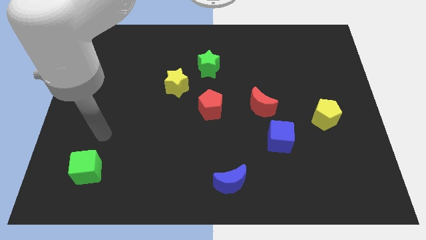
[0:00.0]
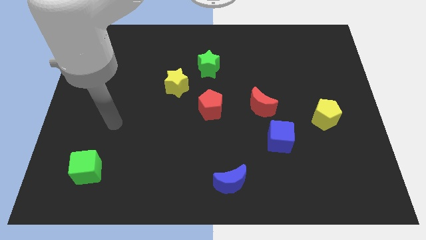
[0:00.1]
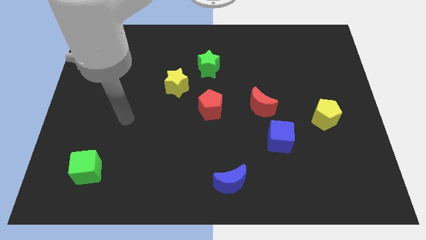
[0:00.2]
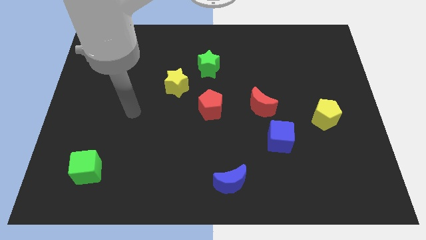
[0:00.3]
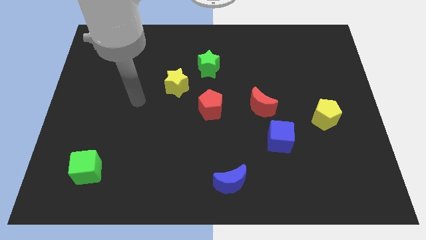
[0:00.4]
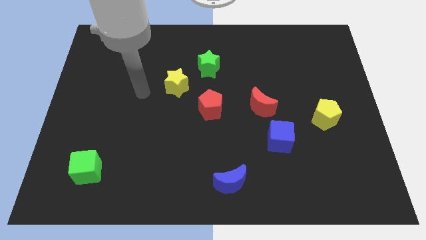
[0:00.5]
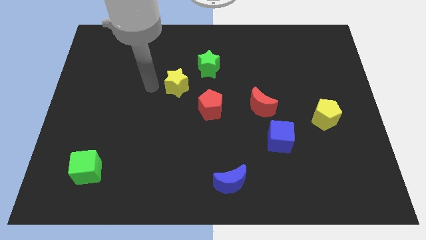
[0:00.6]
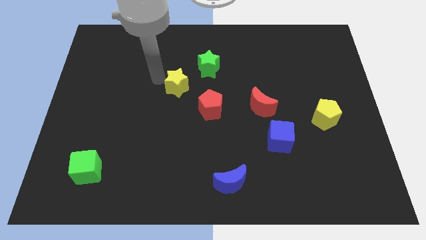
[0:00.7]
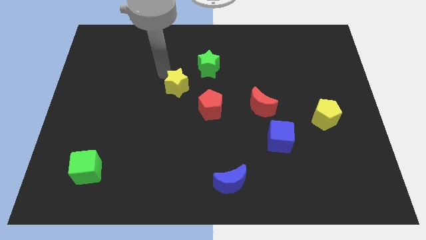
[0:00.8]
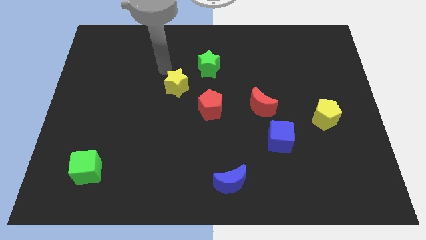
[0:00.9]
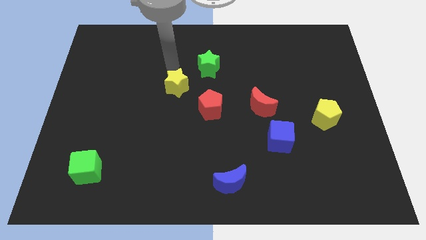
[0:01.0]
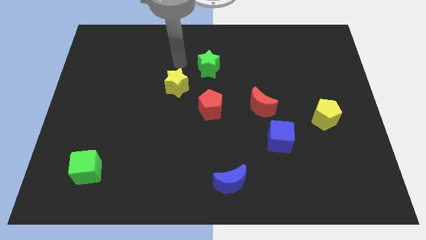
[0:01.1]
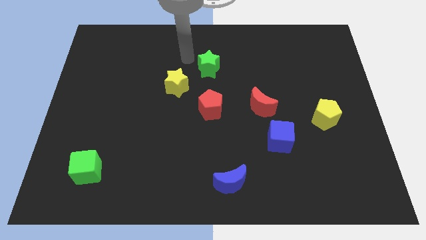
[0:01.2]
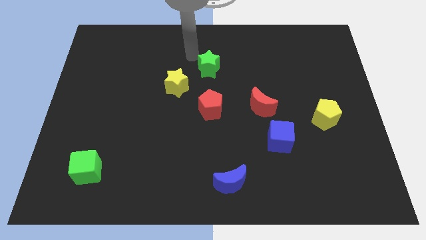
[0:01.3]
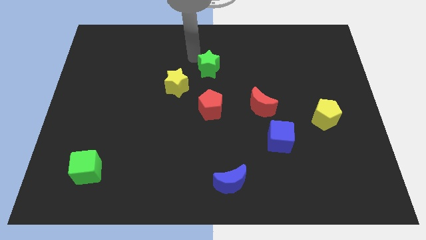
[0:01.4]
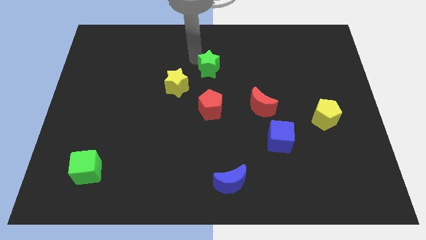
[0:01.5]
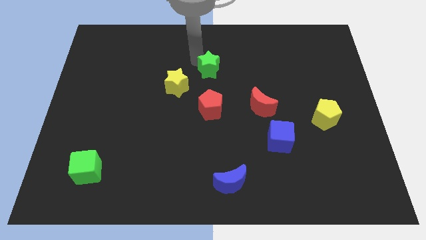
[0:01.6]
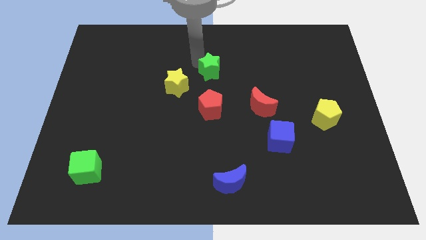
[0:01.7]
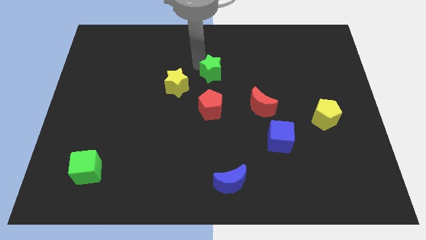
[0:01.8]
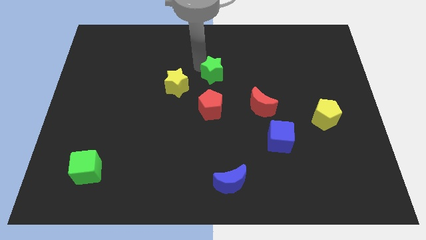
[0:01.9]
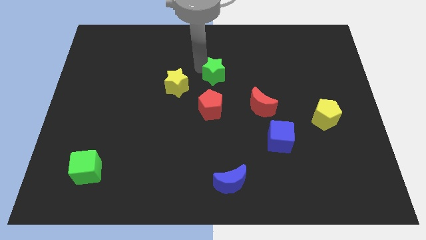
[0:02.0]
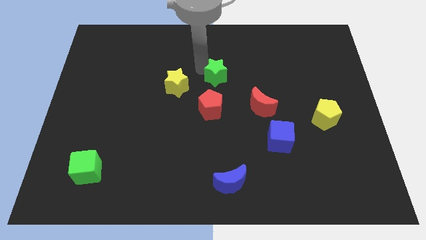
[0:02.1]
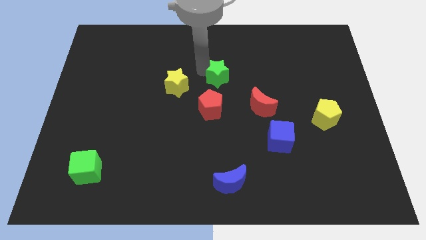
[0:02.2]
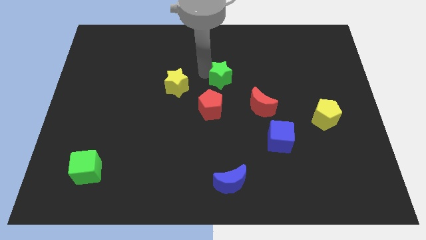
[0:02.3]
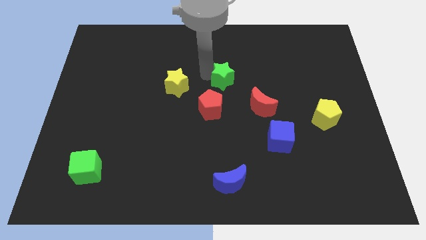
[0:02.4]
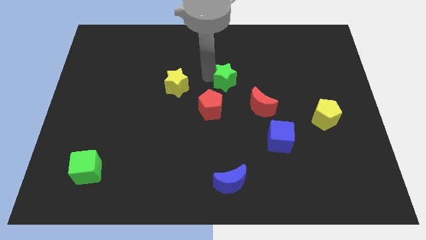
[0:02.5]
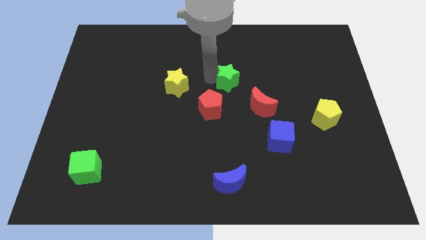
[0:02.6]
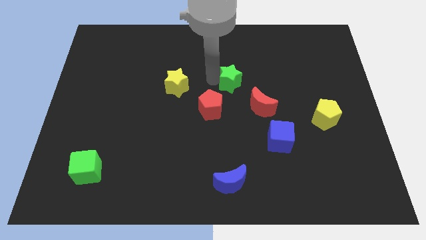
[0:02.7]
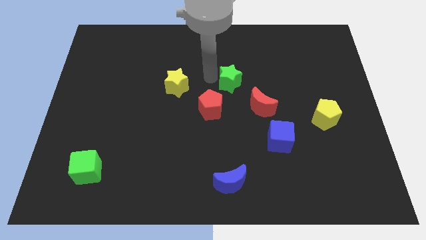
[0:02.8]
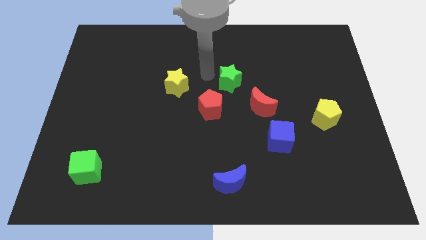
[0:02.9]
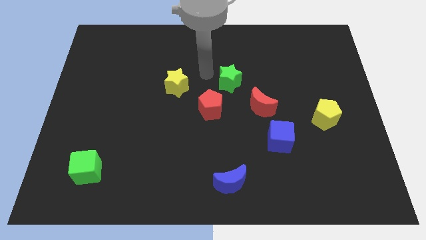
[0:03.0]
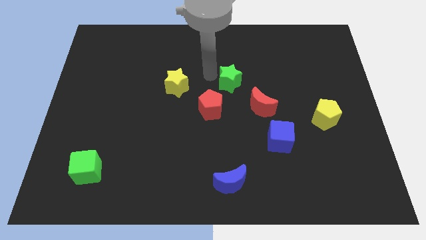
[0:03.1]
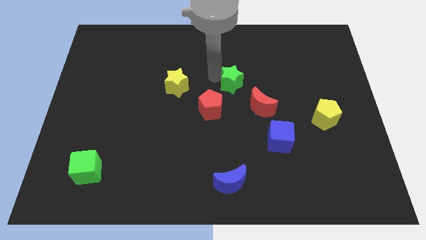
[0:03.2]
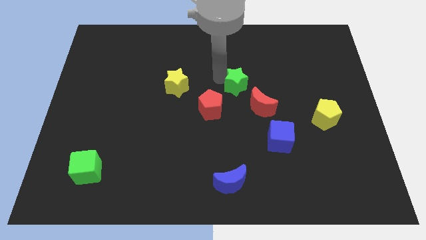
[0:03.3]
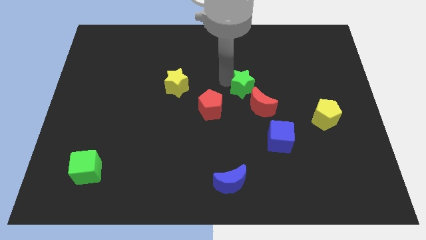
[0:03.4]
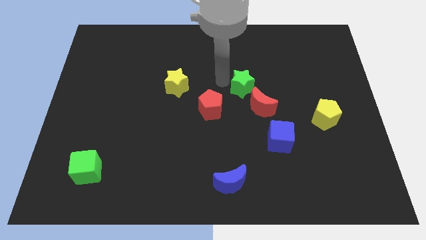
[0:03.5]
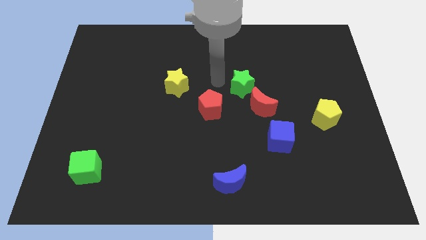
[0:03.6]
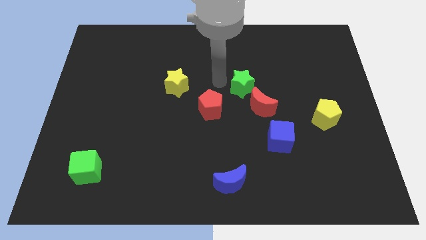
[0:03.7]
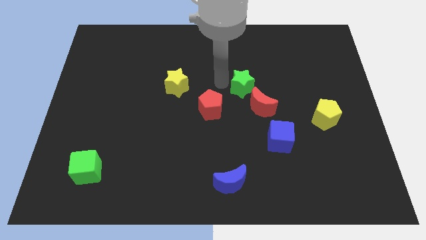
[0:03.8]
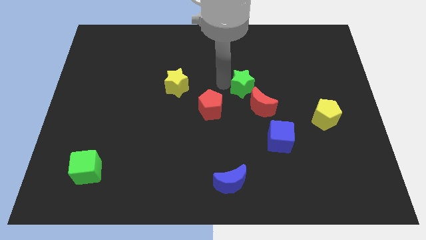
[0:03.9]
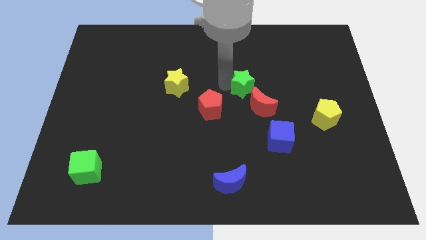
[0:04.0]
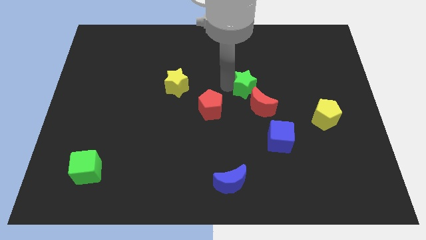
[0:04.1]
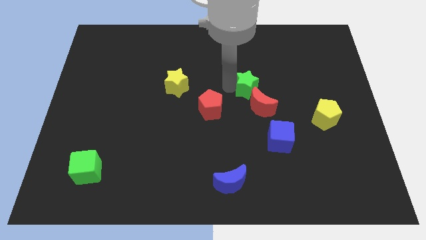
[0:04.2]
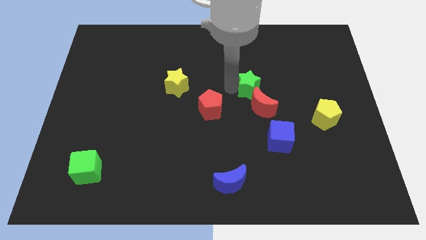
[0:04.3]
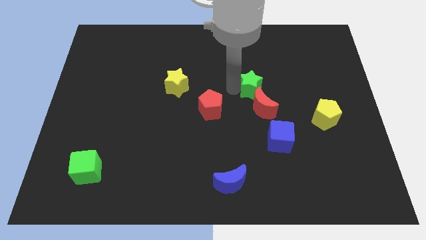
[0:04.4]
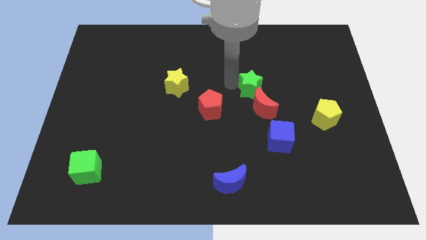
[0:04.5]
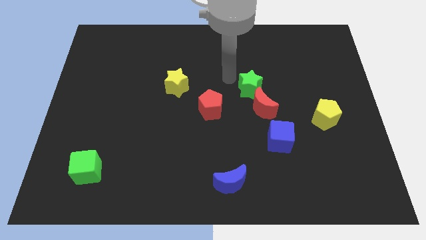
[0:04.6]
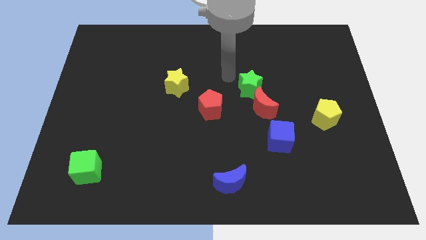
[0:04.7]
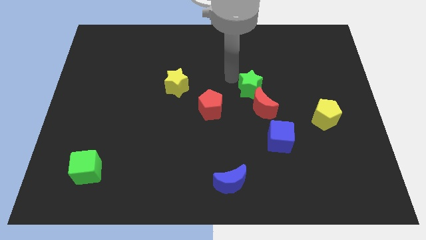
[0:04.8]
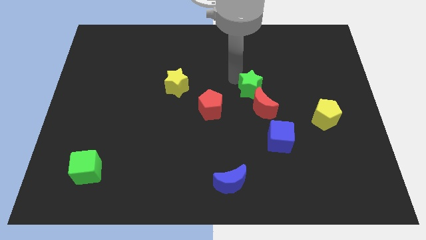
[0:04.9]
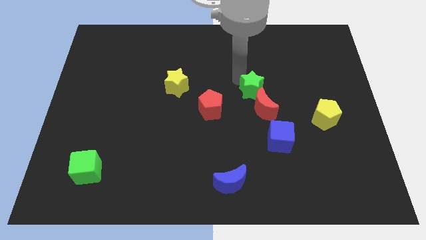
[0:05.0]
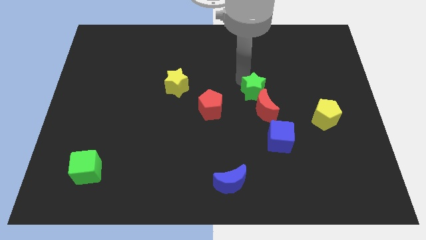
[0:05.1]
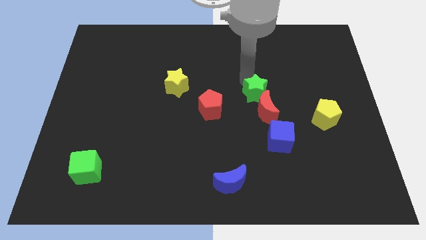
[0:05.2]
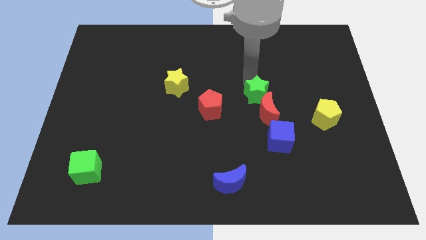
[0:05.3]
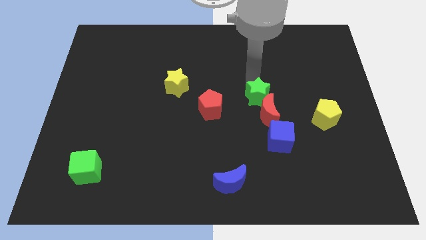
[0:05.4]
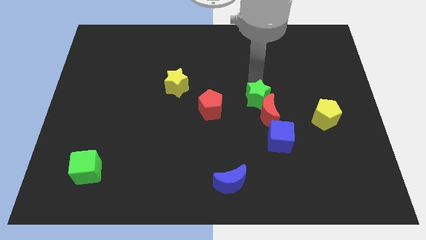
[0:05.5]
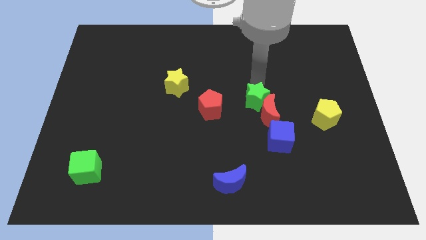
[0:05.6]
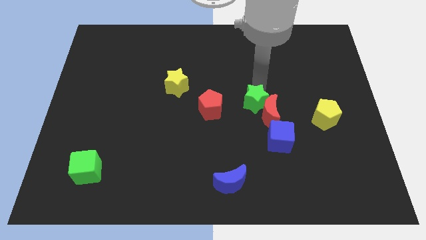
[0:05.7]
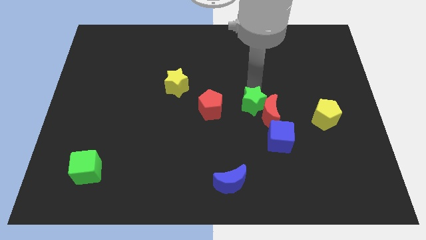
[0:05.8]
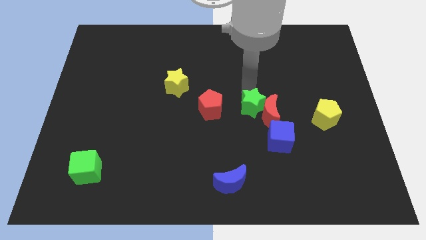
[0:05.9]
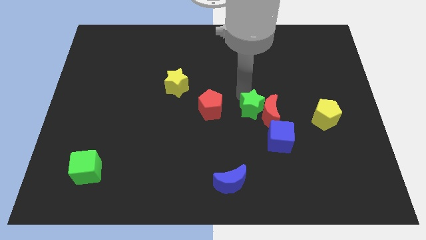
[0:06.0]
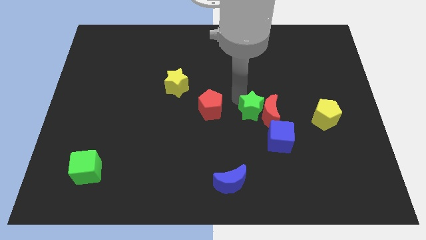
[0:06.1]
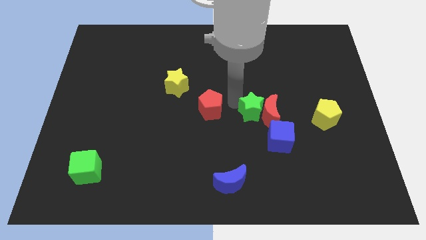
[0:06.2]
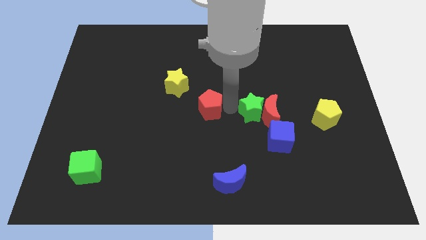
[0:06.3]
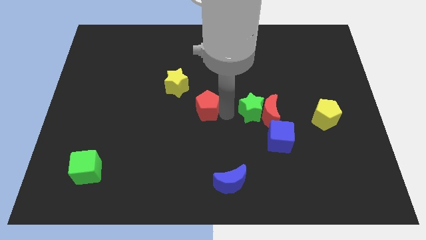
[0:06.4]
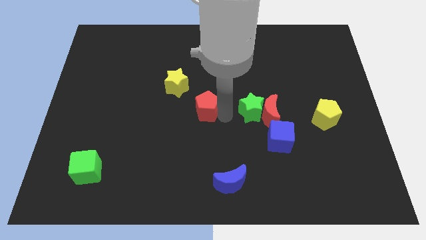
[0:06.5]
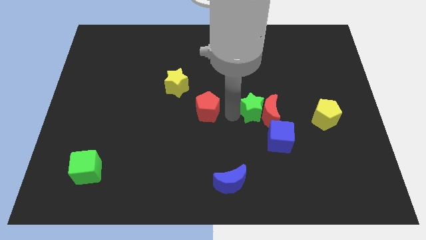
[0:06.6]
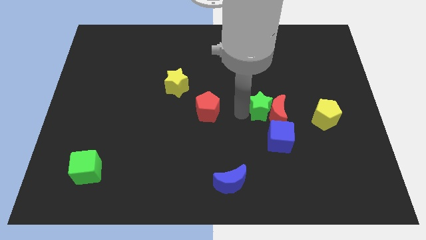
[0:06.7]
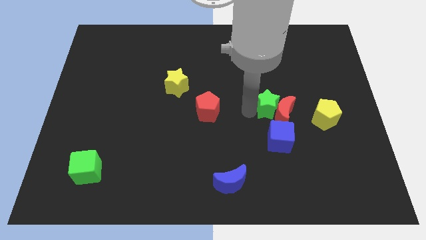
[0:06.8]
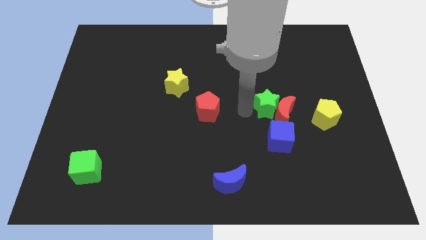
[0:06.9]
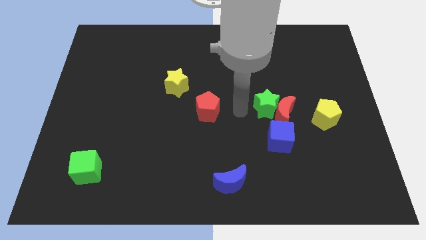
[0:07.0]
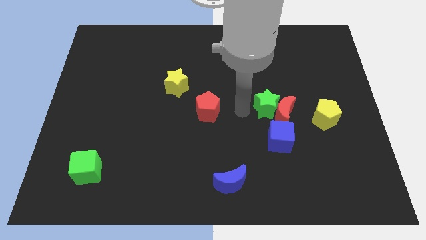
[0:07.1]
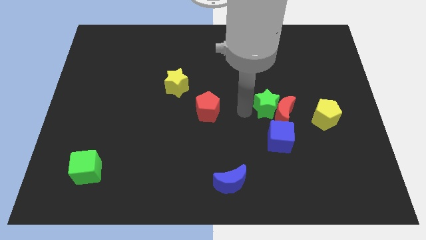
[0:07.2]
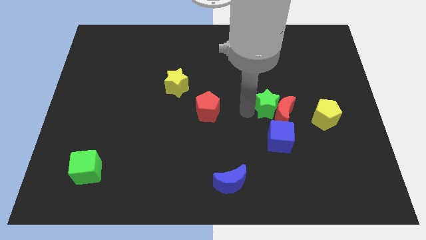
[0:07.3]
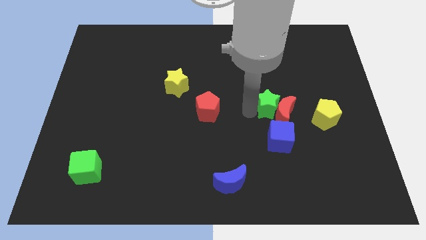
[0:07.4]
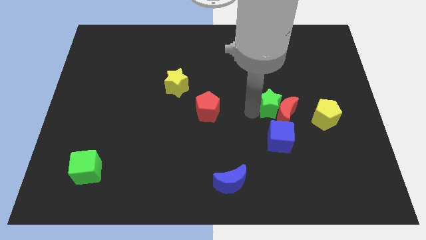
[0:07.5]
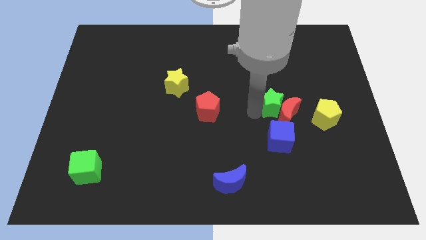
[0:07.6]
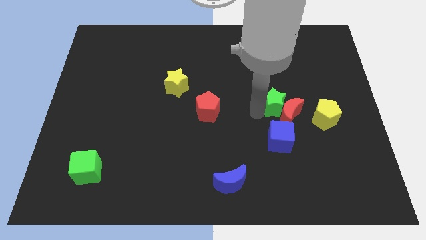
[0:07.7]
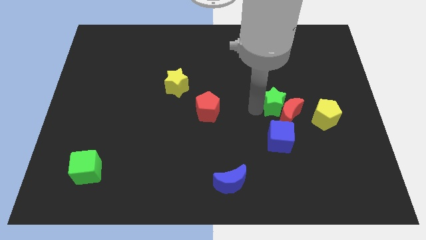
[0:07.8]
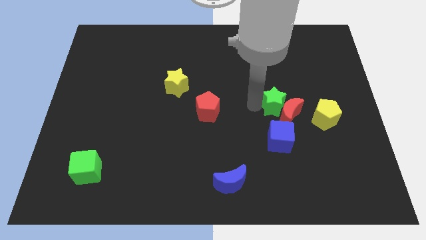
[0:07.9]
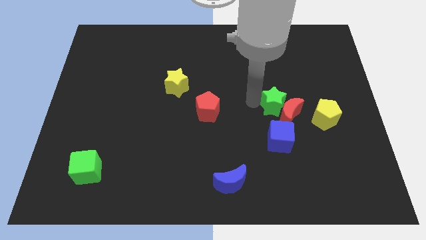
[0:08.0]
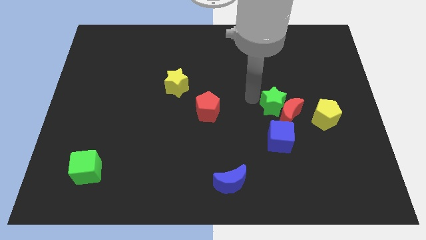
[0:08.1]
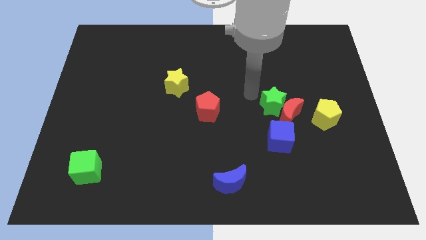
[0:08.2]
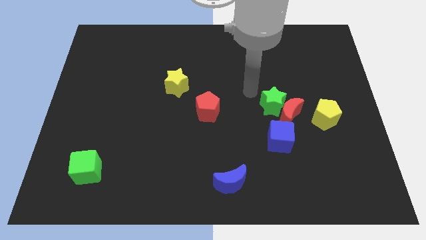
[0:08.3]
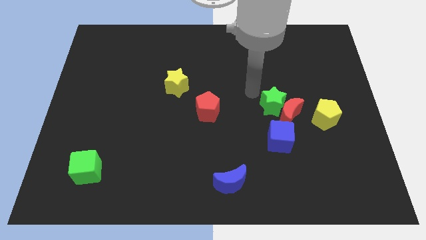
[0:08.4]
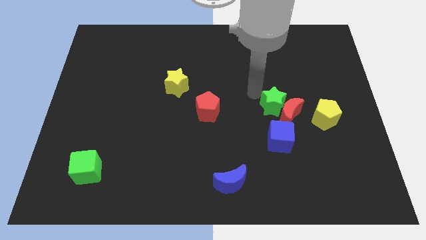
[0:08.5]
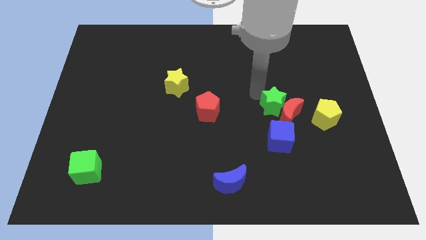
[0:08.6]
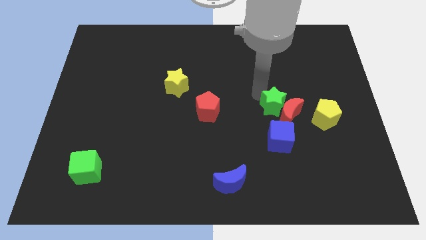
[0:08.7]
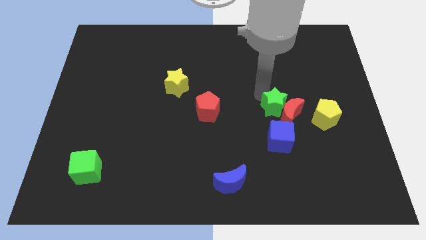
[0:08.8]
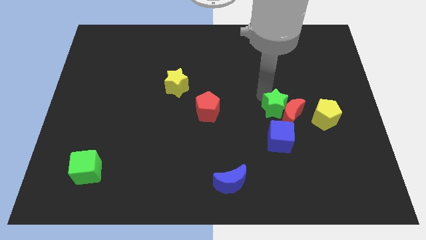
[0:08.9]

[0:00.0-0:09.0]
push the green star diagonally downwards and to the right
